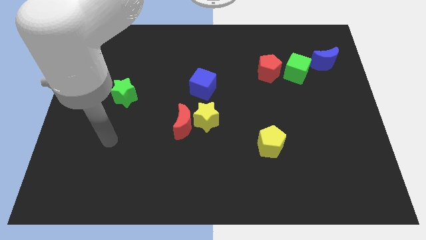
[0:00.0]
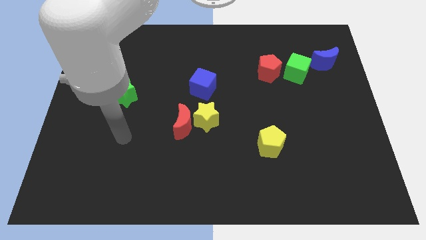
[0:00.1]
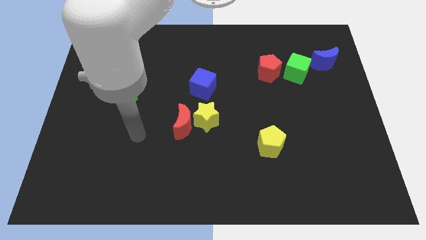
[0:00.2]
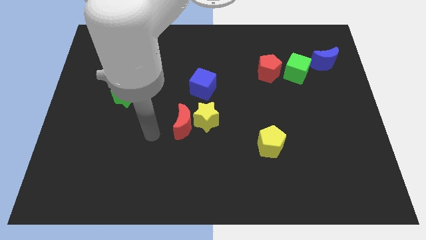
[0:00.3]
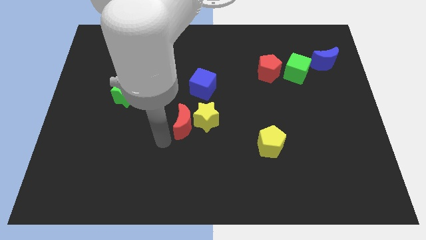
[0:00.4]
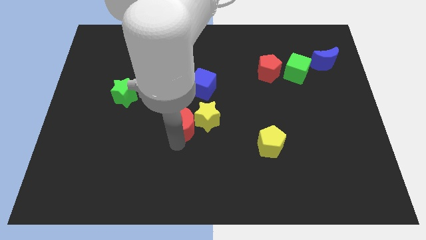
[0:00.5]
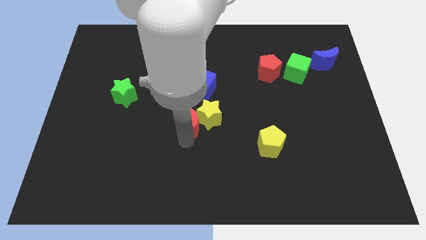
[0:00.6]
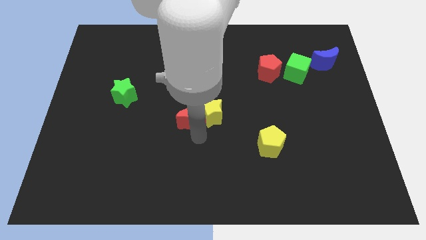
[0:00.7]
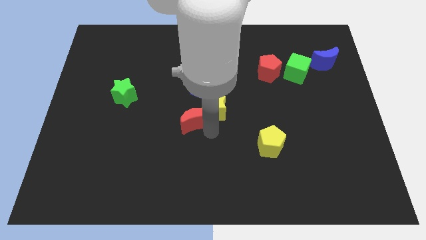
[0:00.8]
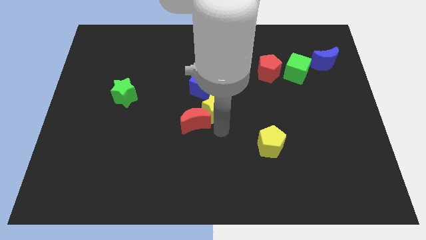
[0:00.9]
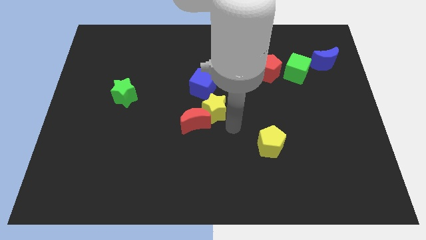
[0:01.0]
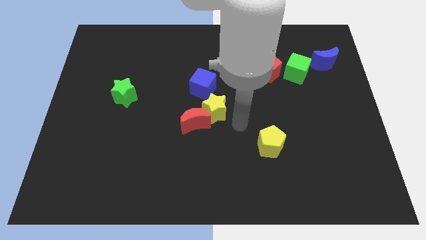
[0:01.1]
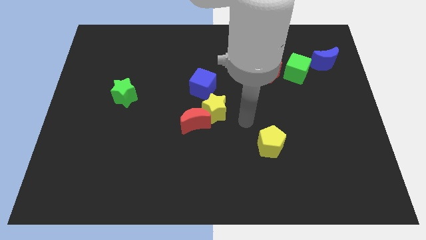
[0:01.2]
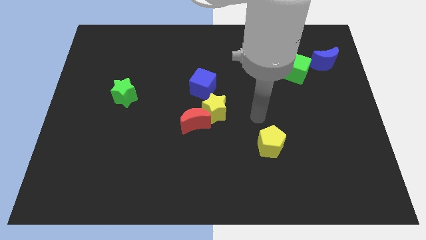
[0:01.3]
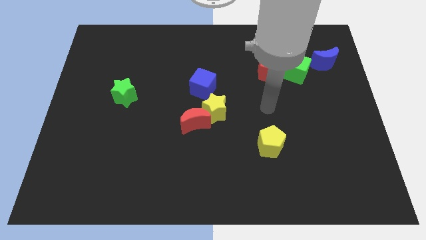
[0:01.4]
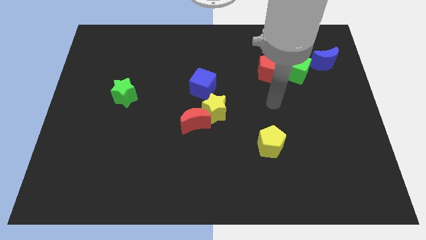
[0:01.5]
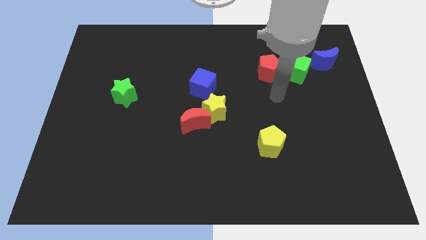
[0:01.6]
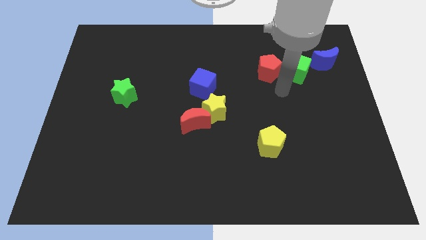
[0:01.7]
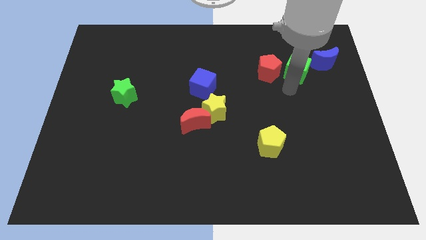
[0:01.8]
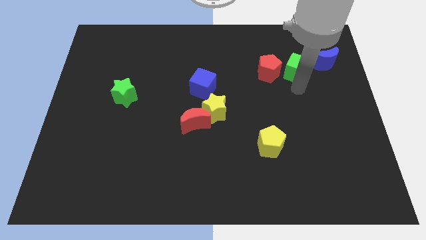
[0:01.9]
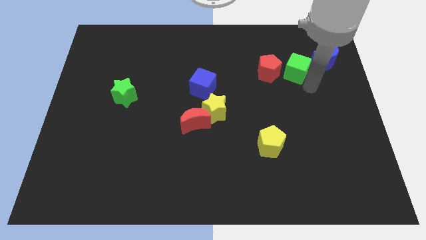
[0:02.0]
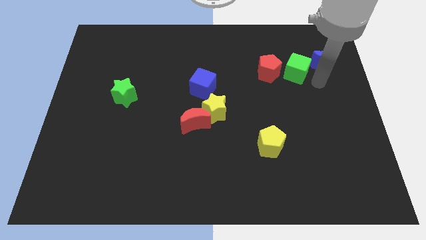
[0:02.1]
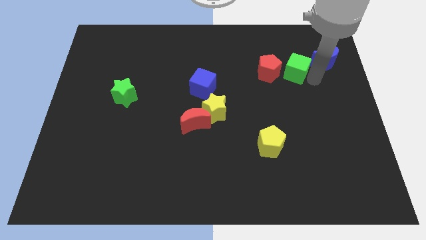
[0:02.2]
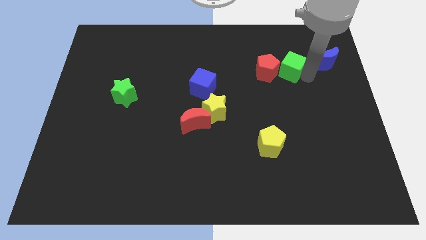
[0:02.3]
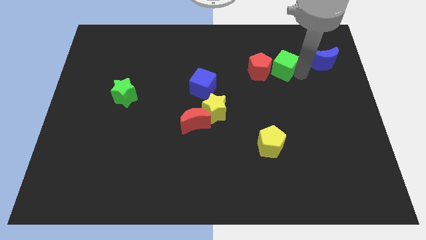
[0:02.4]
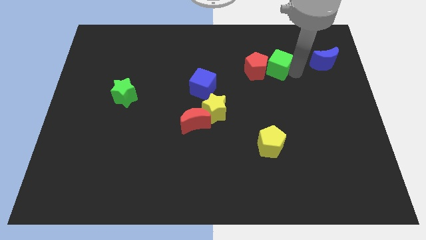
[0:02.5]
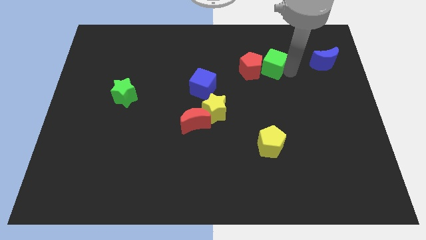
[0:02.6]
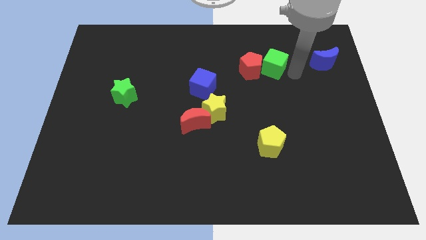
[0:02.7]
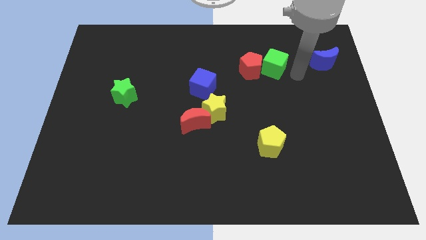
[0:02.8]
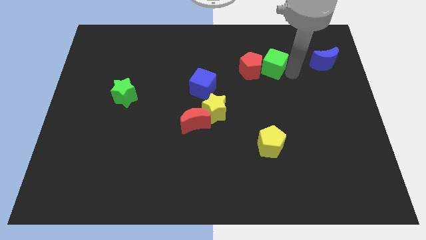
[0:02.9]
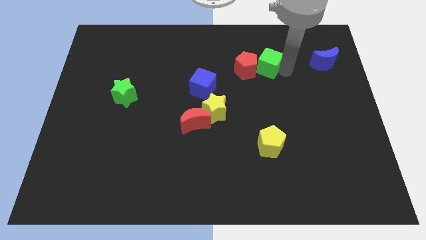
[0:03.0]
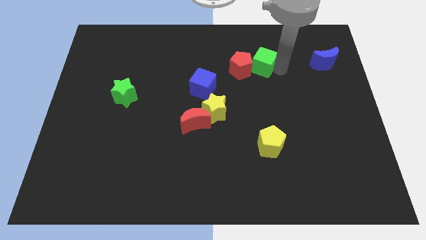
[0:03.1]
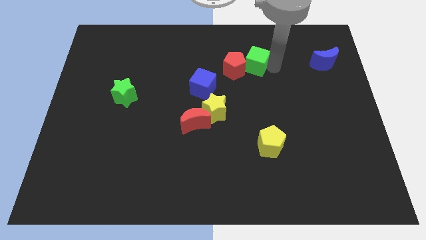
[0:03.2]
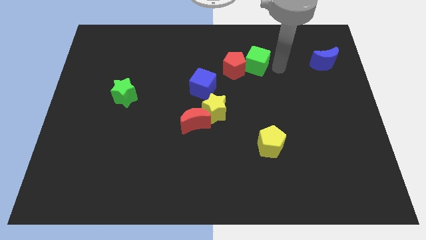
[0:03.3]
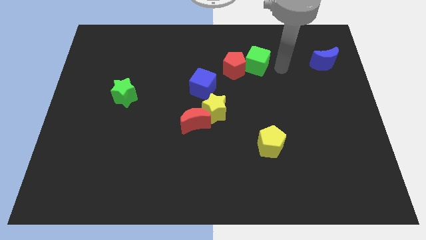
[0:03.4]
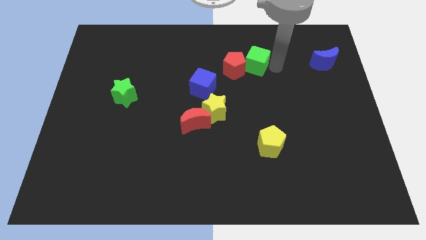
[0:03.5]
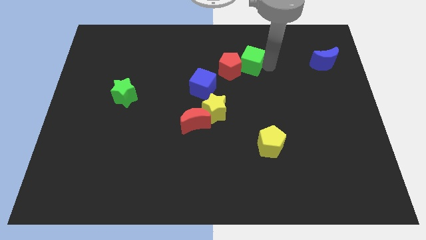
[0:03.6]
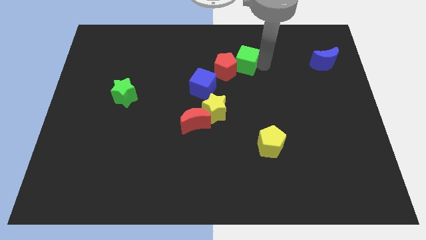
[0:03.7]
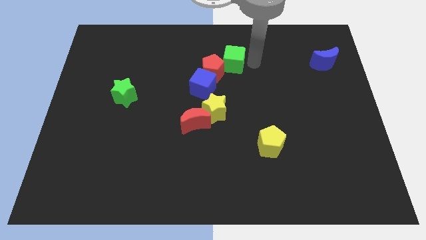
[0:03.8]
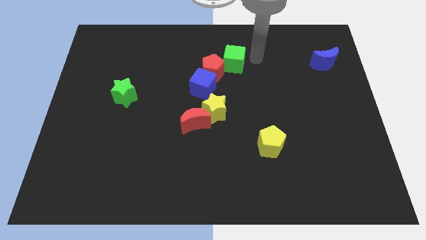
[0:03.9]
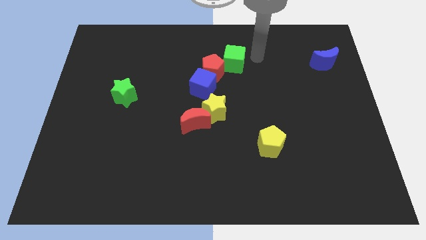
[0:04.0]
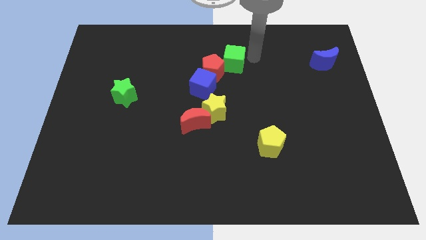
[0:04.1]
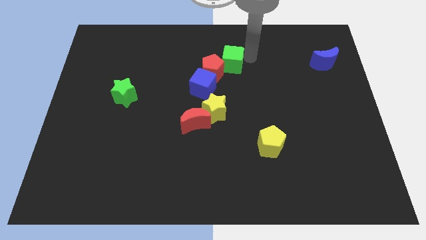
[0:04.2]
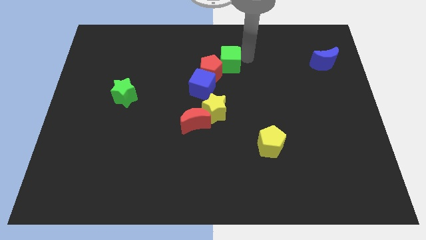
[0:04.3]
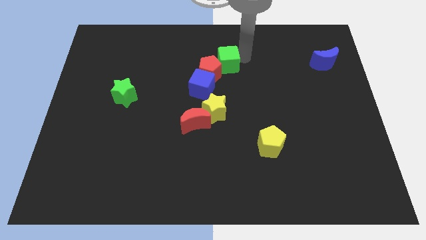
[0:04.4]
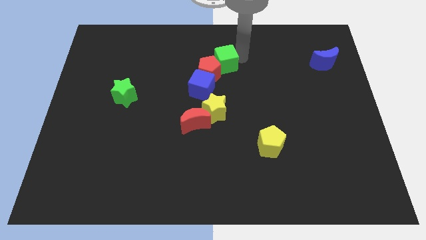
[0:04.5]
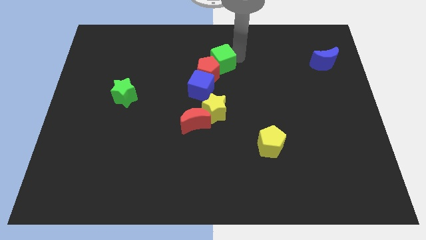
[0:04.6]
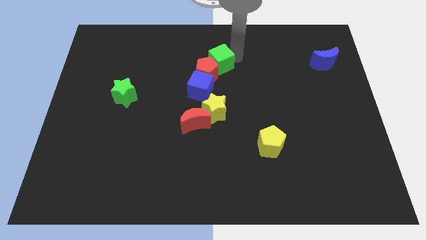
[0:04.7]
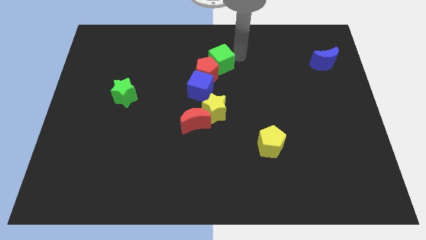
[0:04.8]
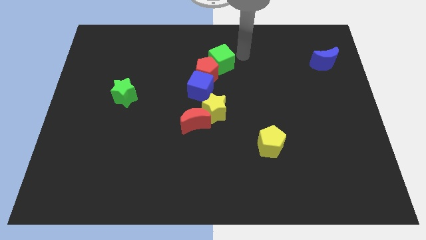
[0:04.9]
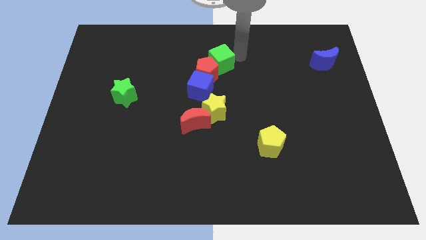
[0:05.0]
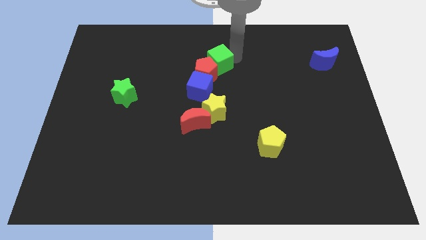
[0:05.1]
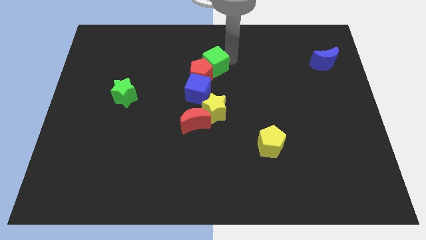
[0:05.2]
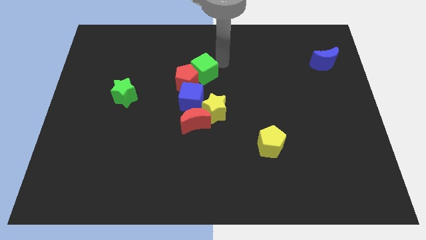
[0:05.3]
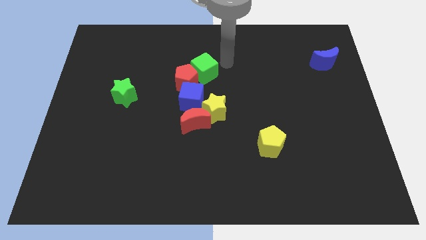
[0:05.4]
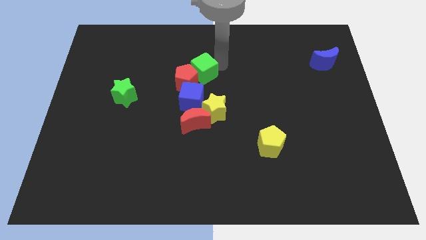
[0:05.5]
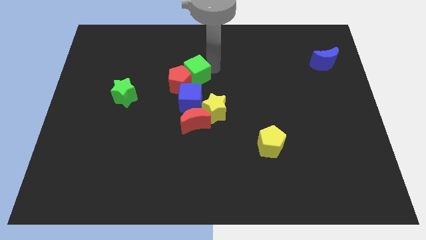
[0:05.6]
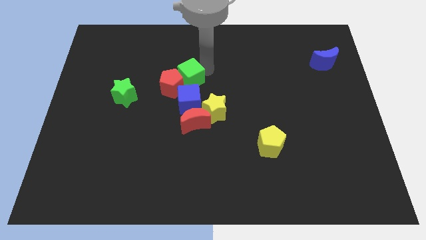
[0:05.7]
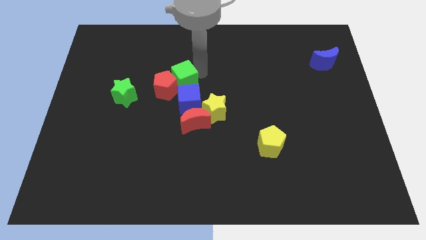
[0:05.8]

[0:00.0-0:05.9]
put the green cube to the top left side of the blue cube

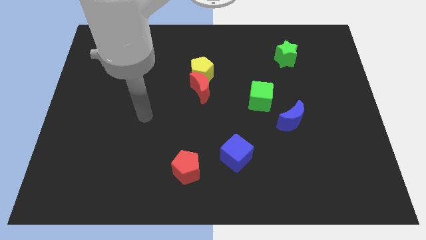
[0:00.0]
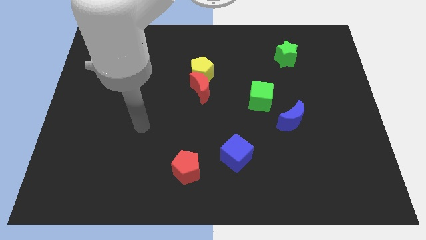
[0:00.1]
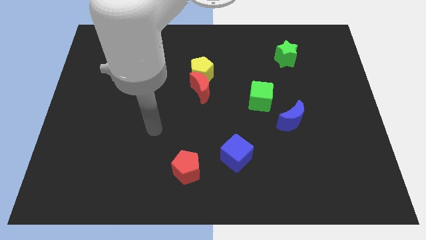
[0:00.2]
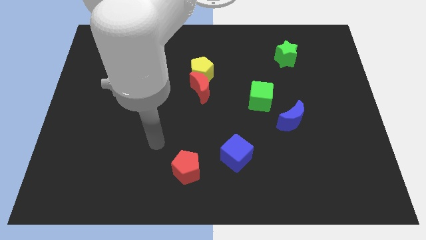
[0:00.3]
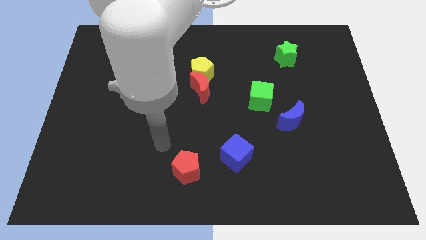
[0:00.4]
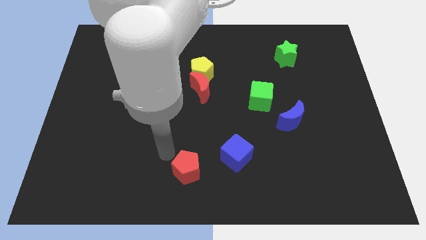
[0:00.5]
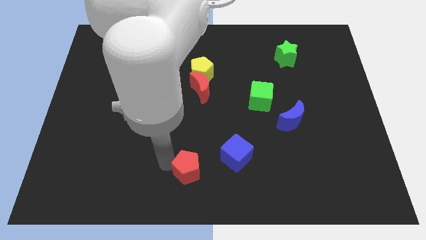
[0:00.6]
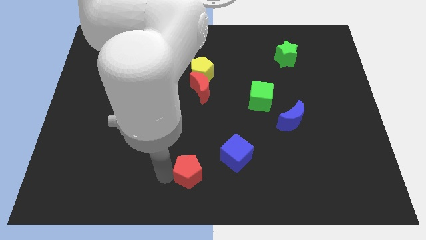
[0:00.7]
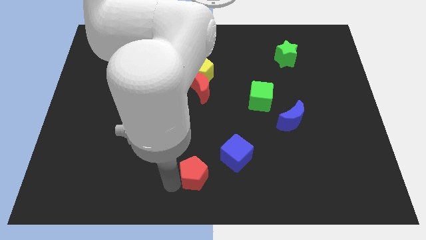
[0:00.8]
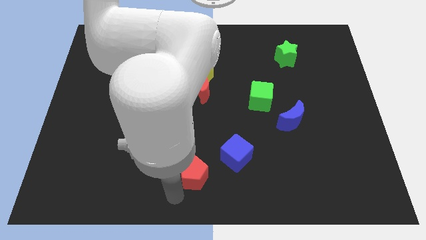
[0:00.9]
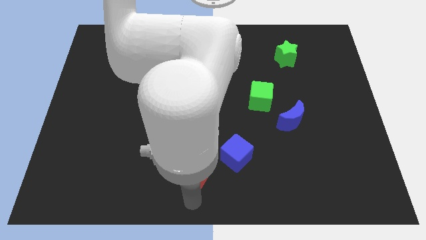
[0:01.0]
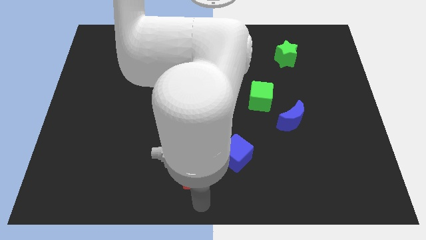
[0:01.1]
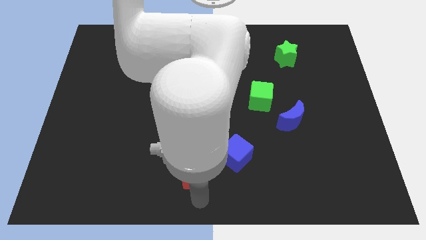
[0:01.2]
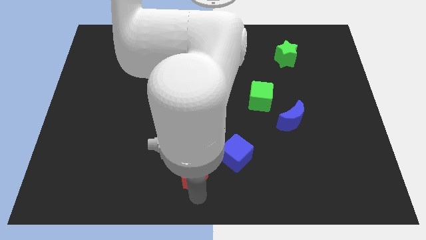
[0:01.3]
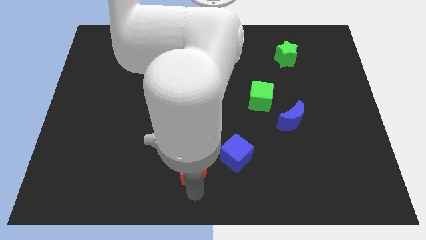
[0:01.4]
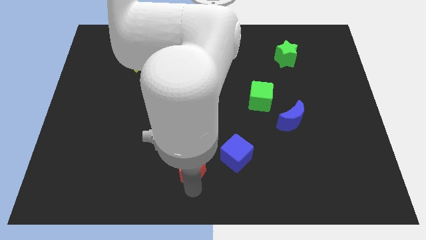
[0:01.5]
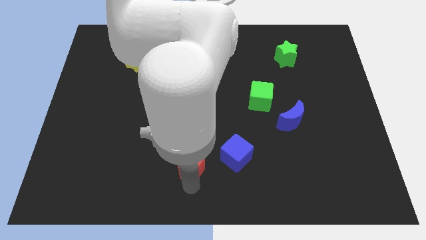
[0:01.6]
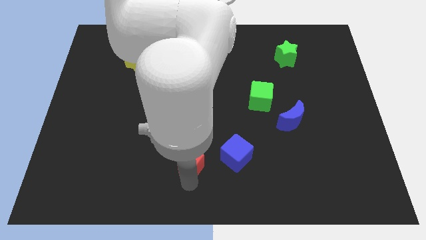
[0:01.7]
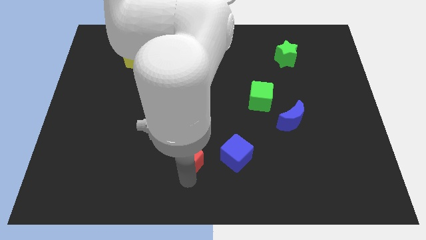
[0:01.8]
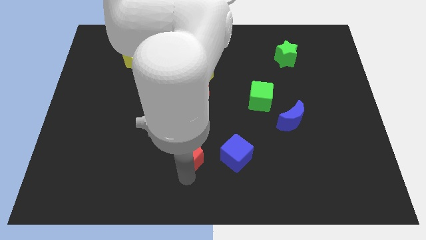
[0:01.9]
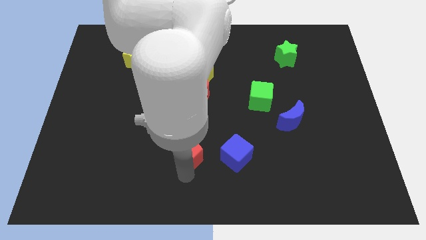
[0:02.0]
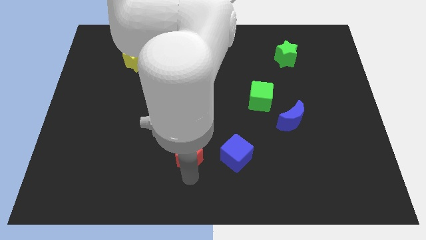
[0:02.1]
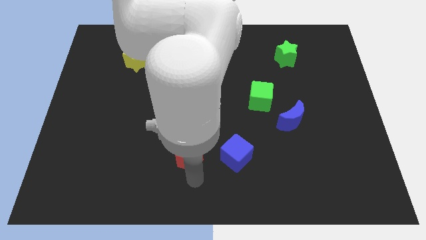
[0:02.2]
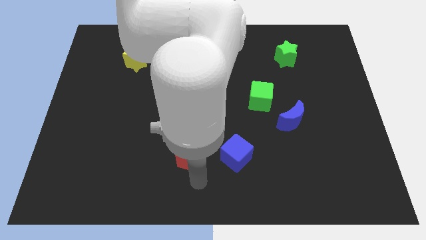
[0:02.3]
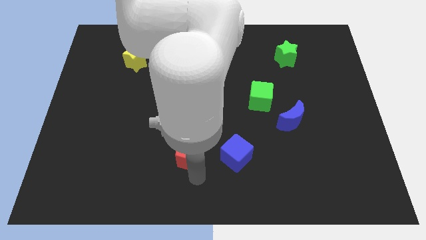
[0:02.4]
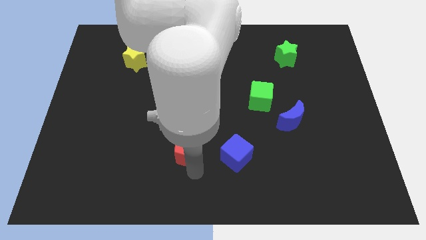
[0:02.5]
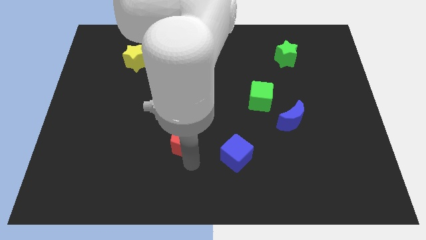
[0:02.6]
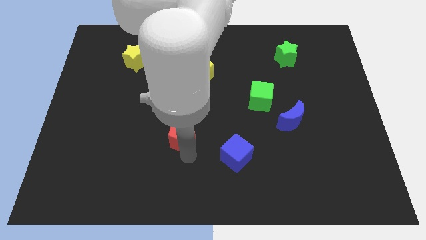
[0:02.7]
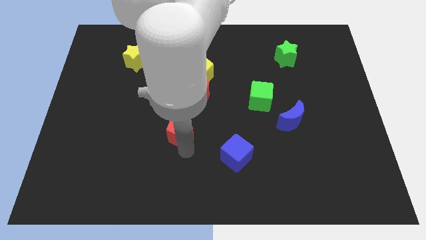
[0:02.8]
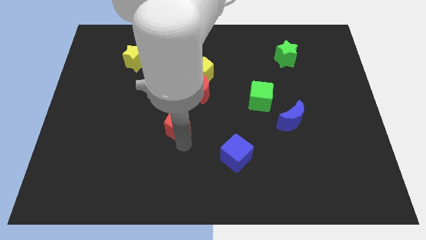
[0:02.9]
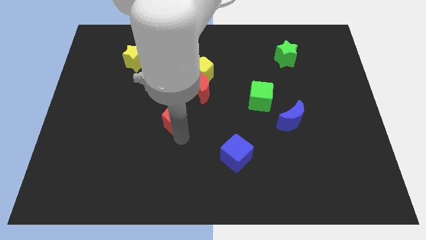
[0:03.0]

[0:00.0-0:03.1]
push the red pentagon diagonally down and to the left of the red moon
